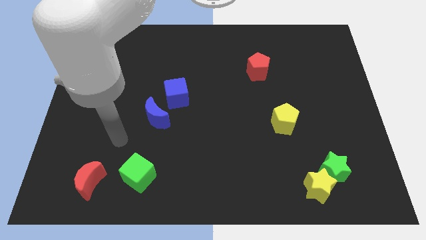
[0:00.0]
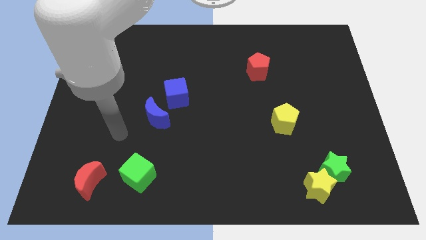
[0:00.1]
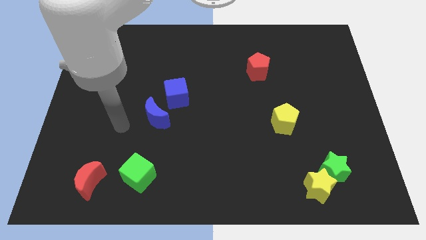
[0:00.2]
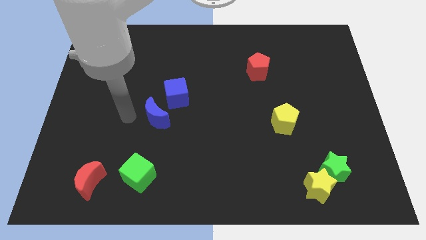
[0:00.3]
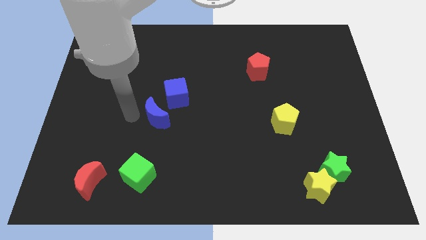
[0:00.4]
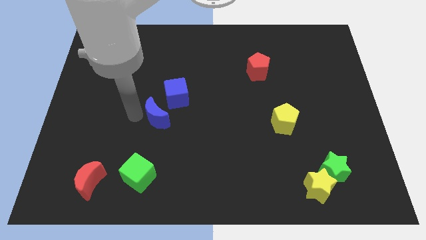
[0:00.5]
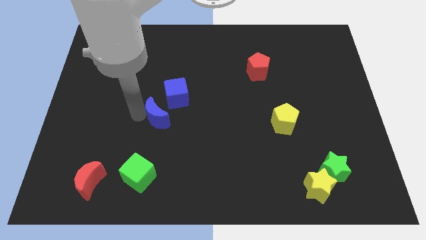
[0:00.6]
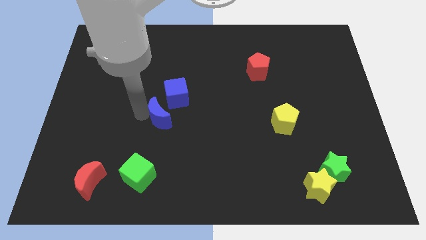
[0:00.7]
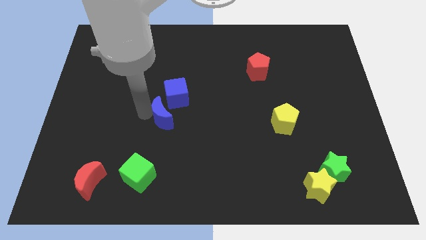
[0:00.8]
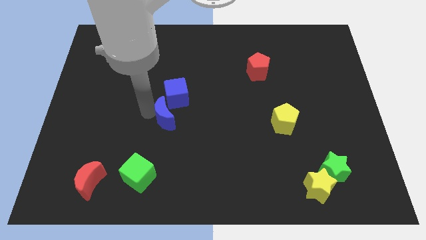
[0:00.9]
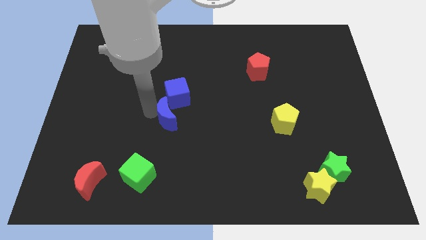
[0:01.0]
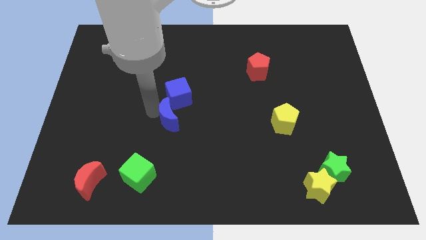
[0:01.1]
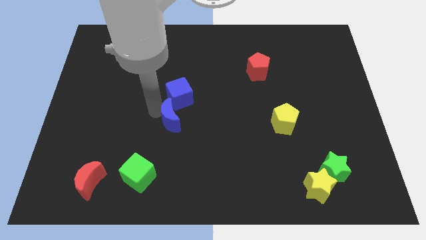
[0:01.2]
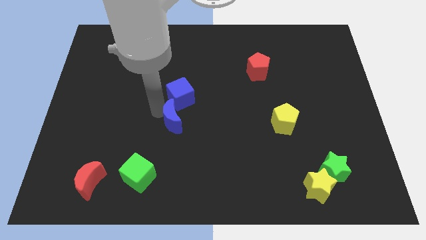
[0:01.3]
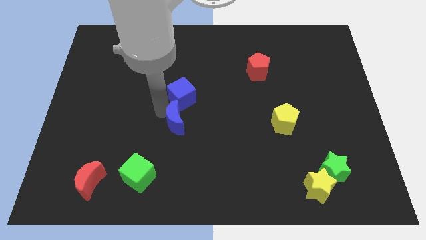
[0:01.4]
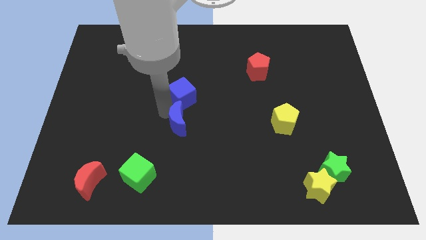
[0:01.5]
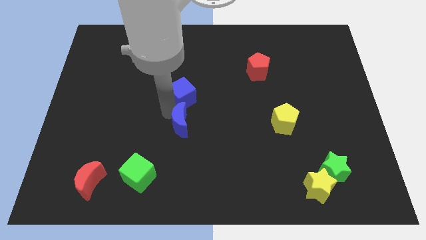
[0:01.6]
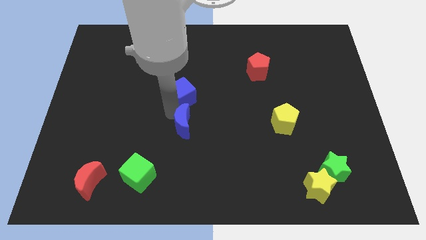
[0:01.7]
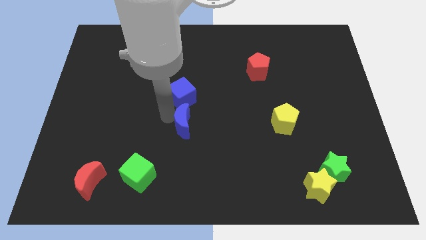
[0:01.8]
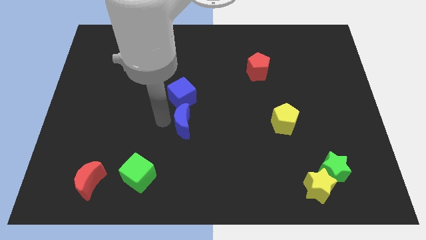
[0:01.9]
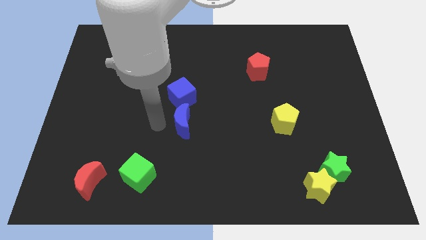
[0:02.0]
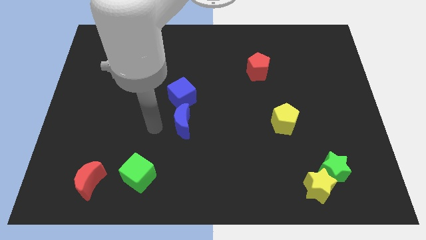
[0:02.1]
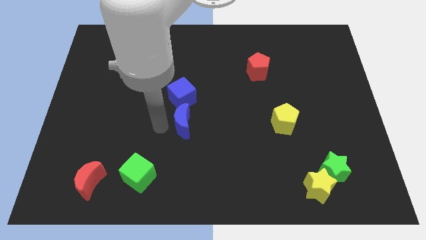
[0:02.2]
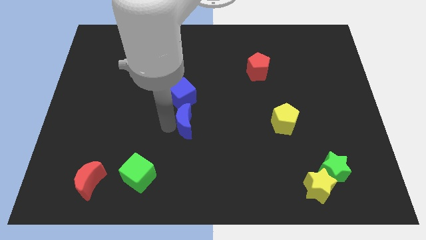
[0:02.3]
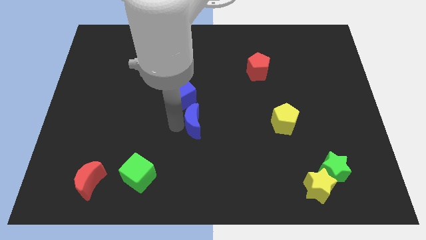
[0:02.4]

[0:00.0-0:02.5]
slightly move the blue moon to the right

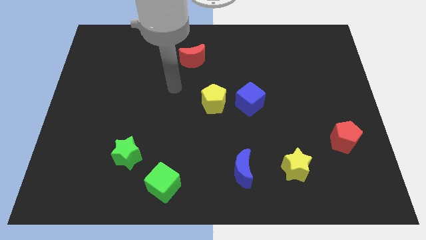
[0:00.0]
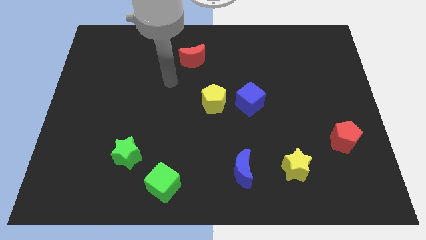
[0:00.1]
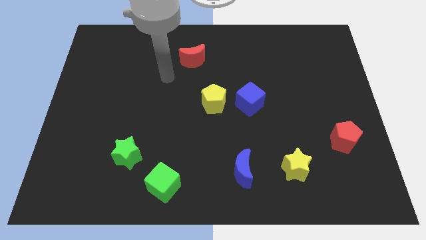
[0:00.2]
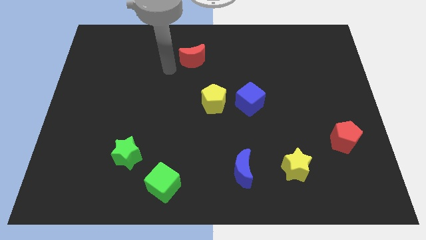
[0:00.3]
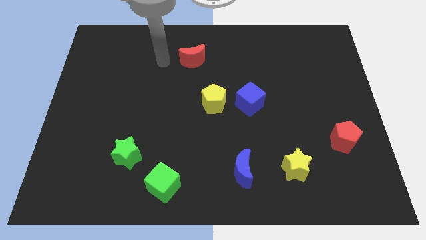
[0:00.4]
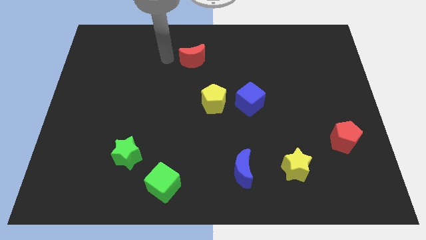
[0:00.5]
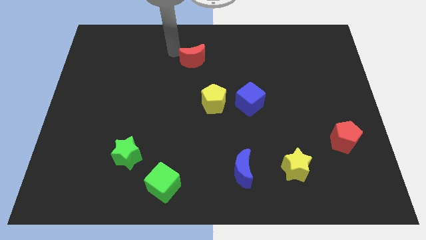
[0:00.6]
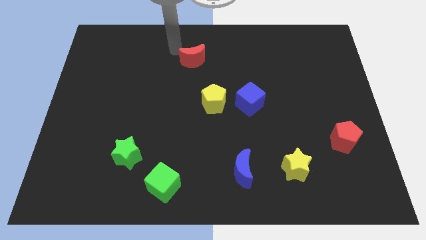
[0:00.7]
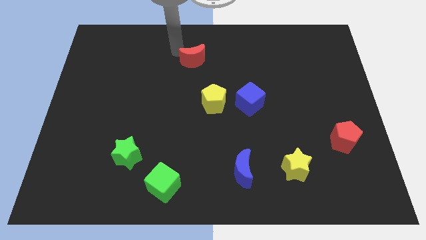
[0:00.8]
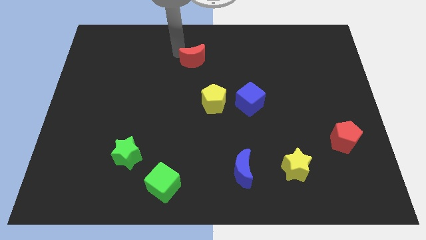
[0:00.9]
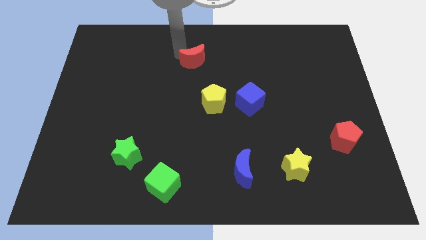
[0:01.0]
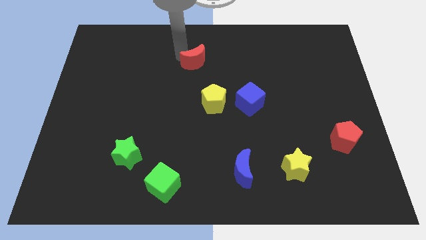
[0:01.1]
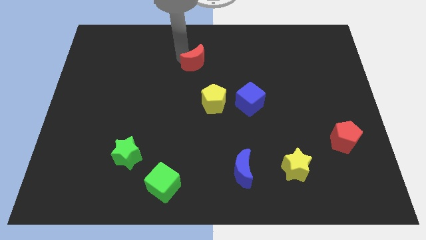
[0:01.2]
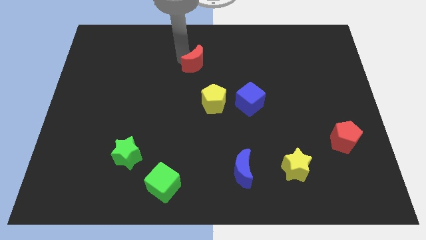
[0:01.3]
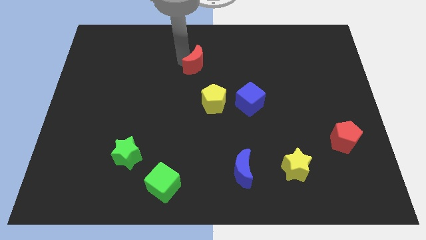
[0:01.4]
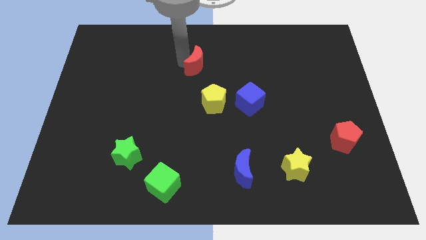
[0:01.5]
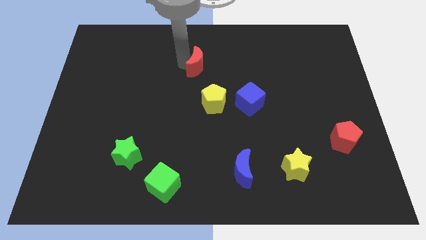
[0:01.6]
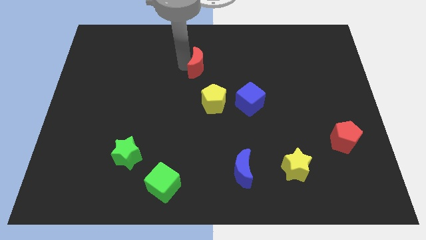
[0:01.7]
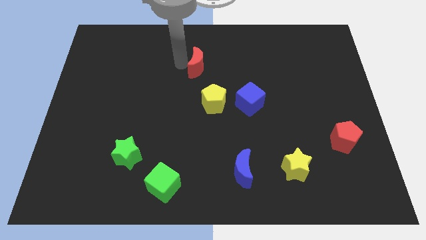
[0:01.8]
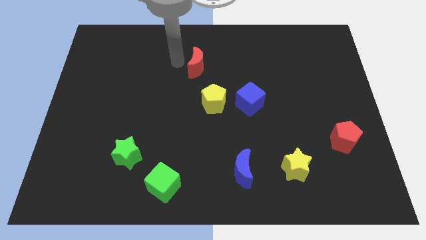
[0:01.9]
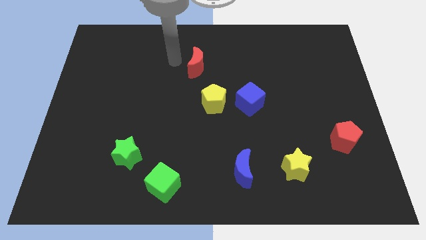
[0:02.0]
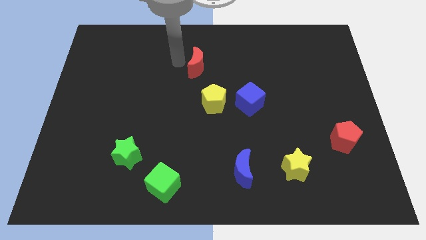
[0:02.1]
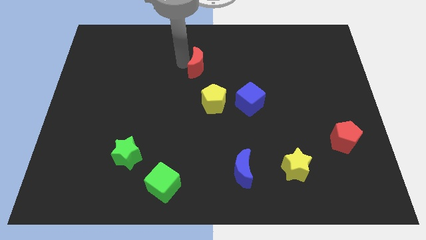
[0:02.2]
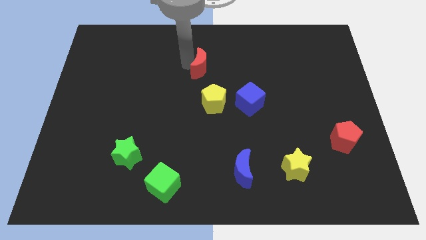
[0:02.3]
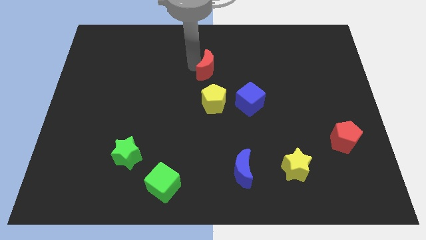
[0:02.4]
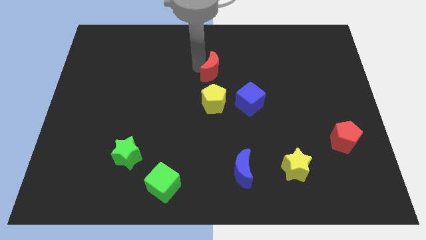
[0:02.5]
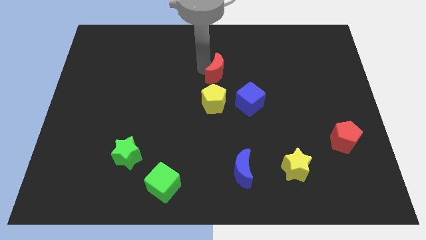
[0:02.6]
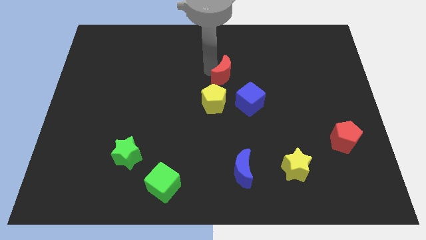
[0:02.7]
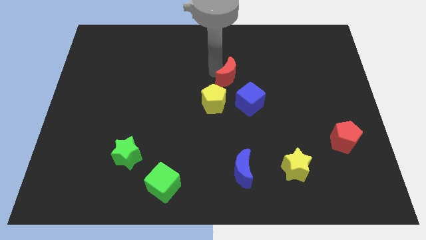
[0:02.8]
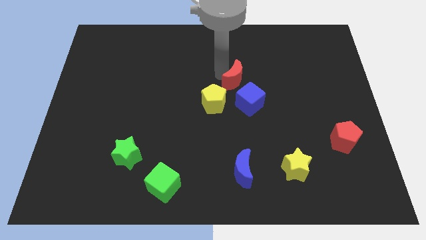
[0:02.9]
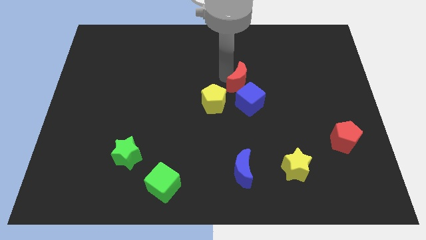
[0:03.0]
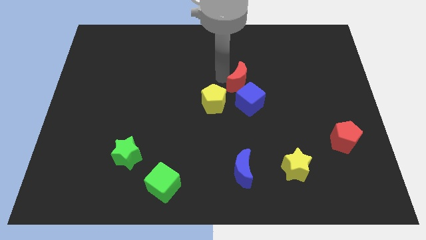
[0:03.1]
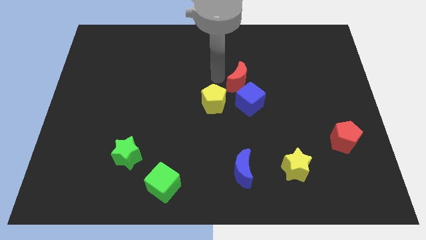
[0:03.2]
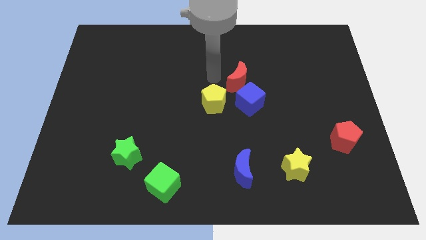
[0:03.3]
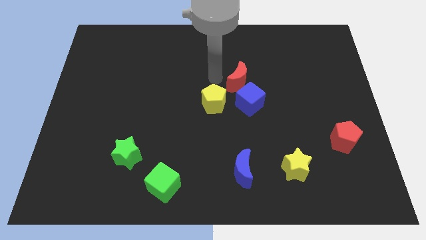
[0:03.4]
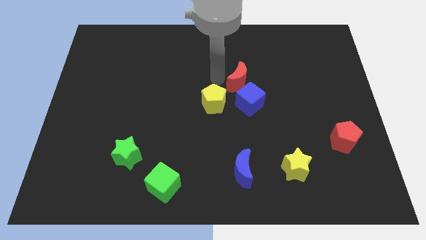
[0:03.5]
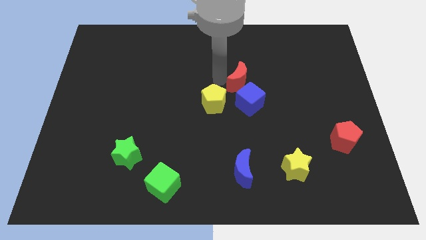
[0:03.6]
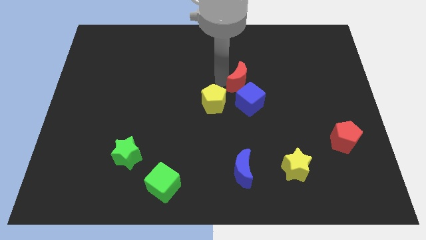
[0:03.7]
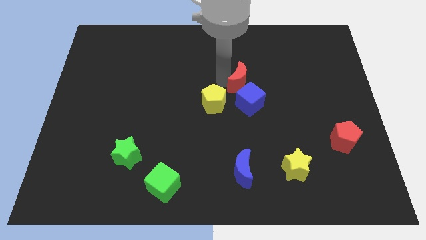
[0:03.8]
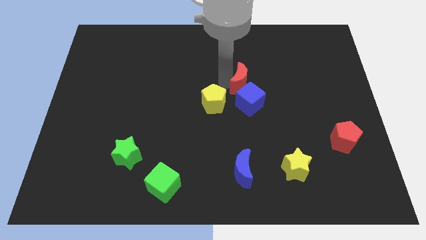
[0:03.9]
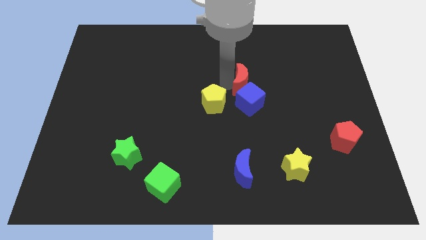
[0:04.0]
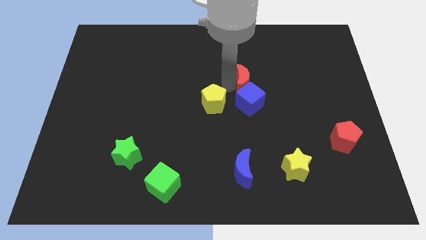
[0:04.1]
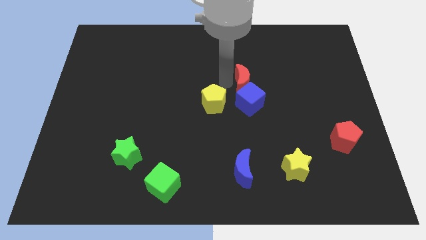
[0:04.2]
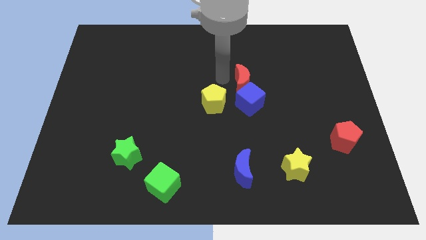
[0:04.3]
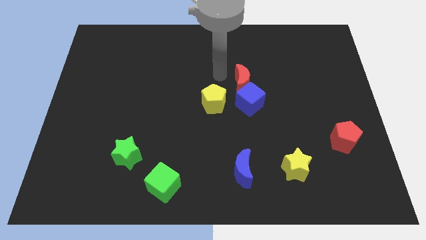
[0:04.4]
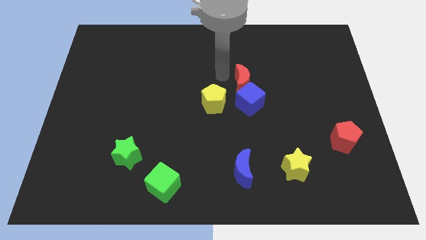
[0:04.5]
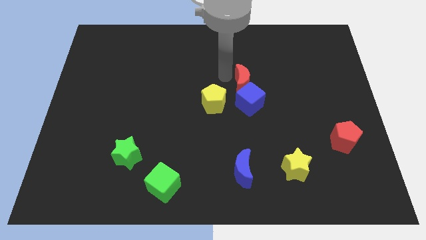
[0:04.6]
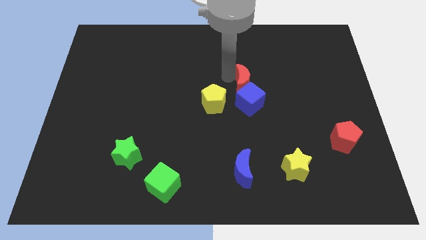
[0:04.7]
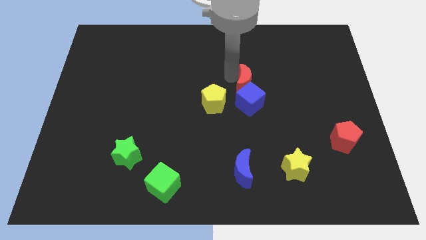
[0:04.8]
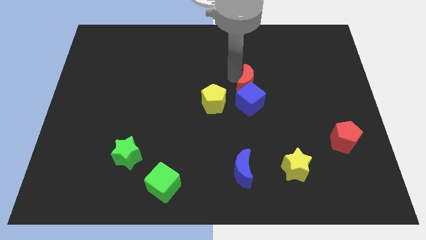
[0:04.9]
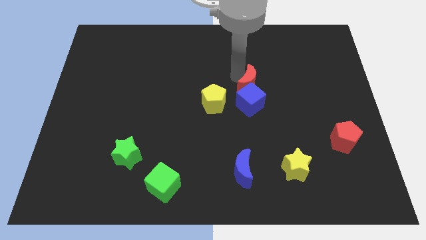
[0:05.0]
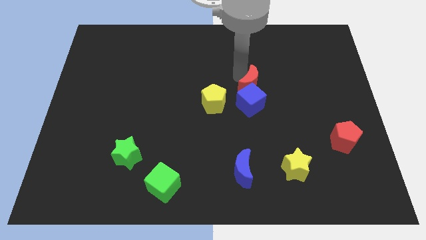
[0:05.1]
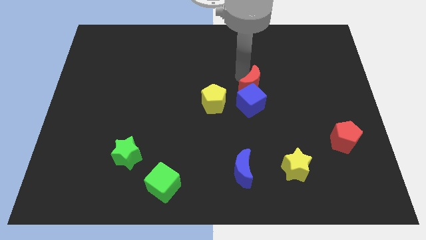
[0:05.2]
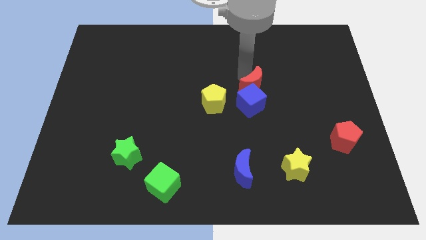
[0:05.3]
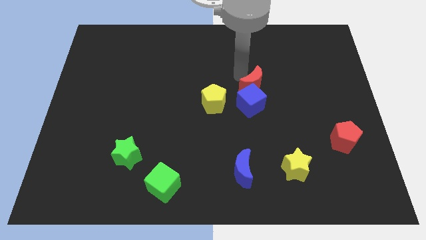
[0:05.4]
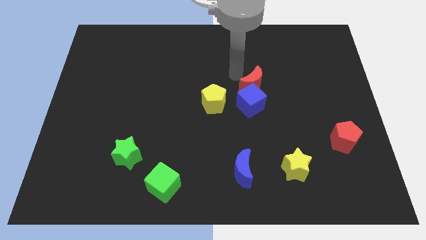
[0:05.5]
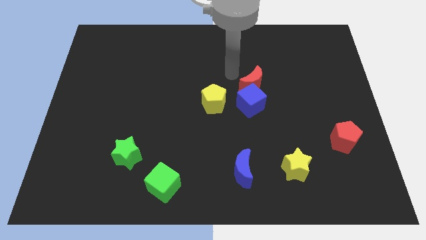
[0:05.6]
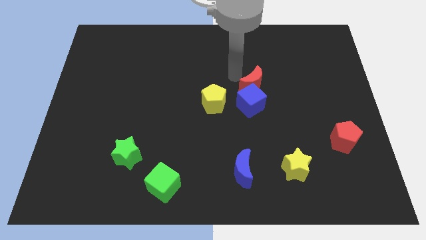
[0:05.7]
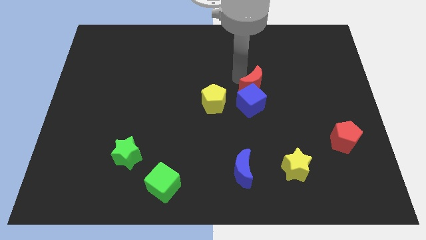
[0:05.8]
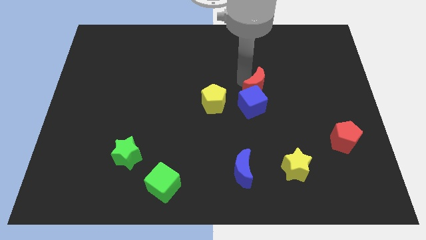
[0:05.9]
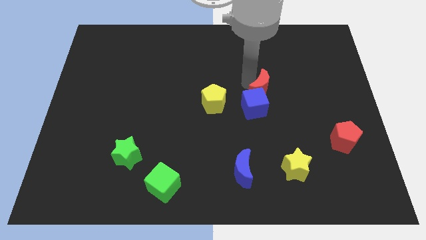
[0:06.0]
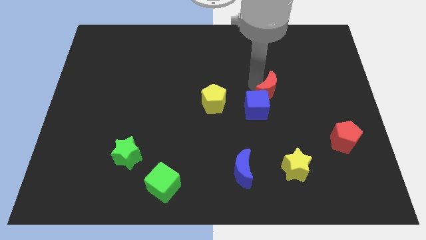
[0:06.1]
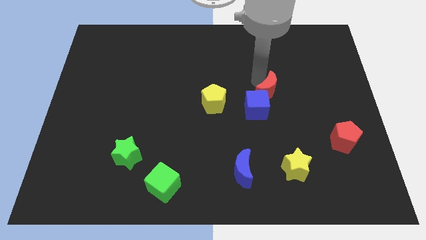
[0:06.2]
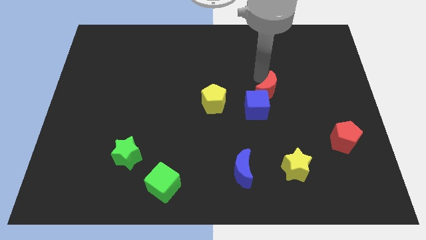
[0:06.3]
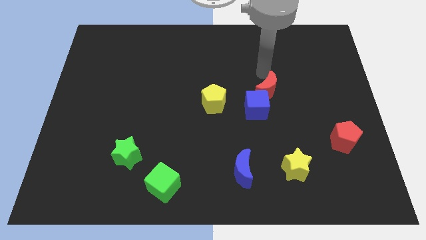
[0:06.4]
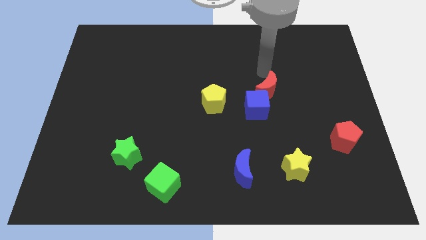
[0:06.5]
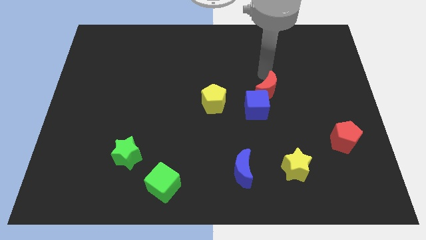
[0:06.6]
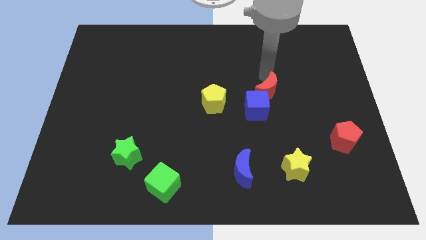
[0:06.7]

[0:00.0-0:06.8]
move the red moon diagonally downwards and to the right
